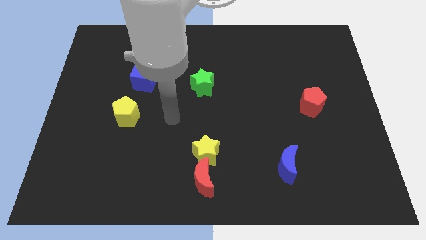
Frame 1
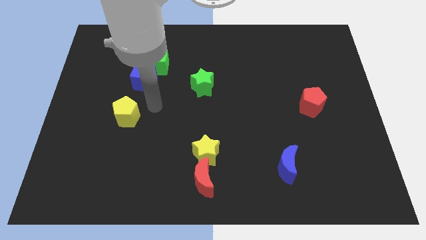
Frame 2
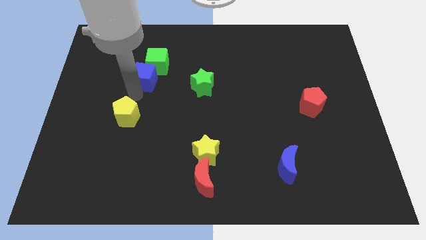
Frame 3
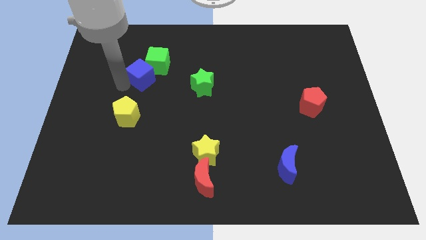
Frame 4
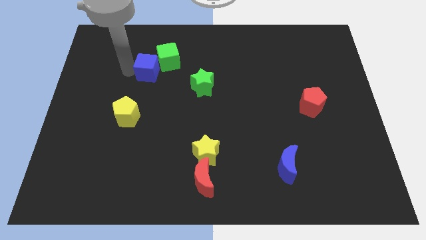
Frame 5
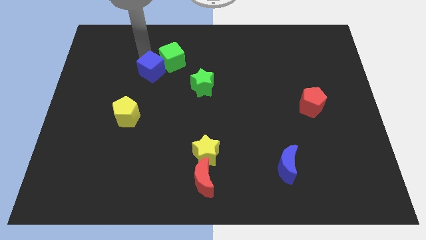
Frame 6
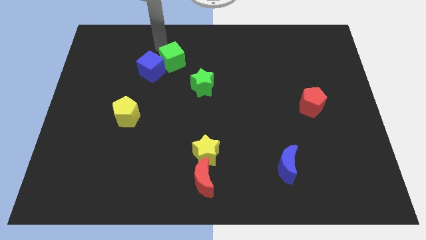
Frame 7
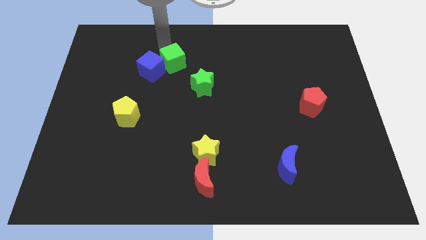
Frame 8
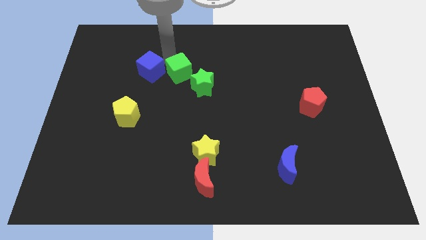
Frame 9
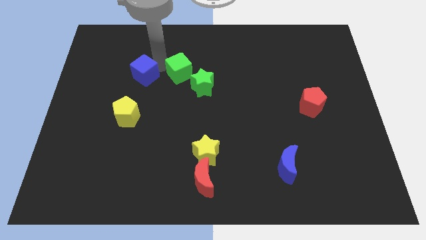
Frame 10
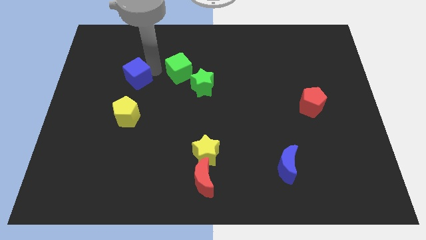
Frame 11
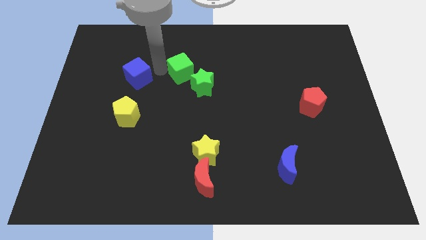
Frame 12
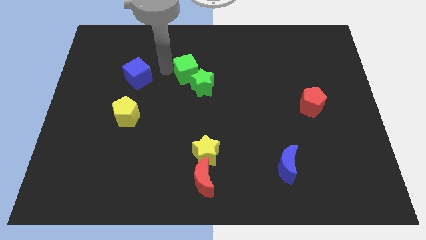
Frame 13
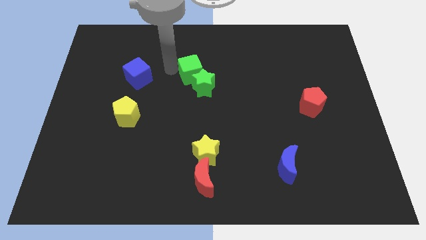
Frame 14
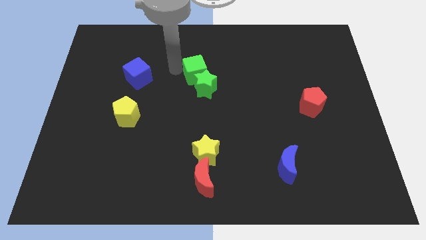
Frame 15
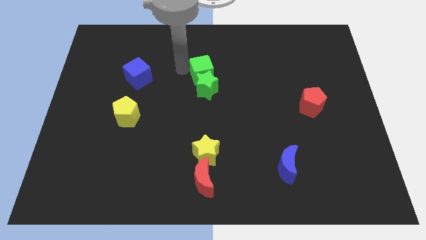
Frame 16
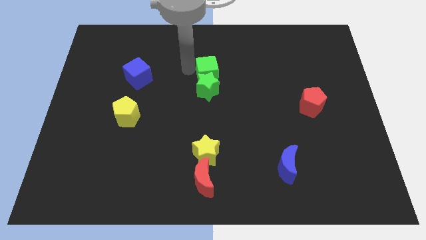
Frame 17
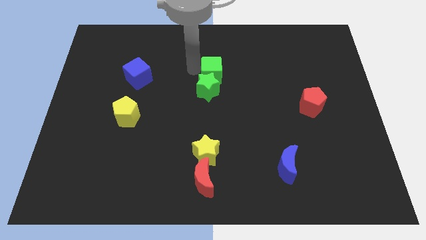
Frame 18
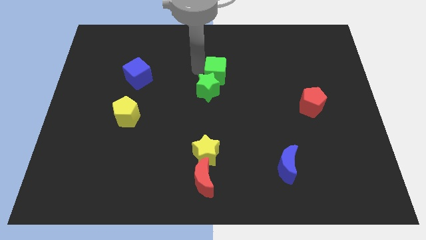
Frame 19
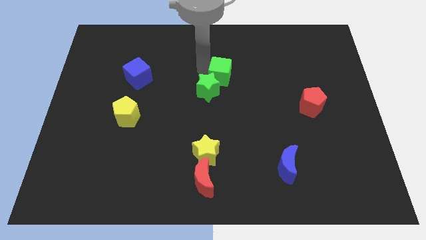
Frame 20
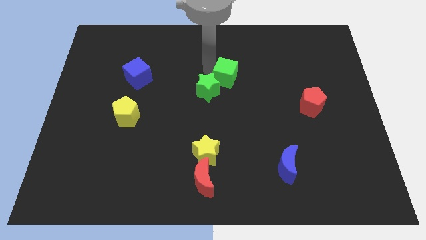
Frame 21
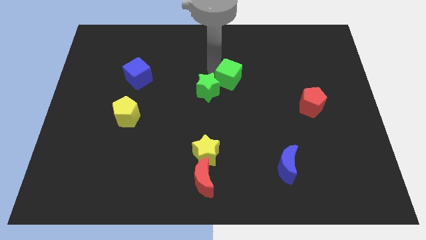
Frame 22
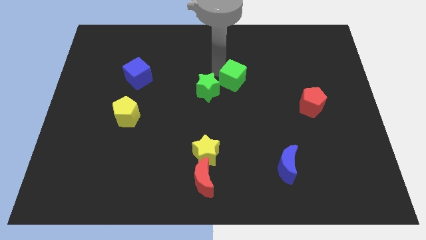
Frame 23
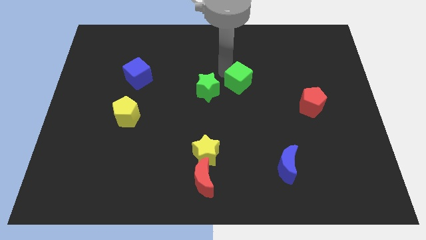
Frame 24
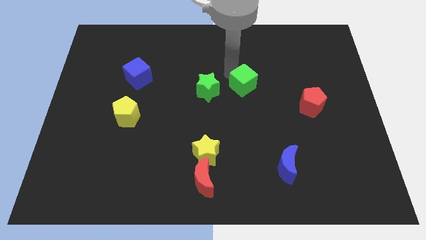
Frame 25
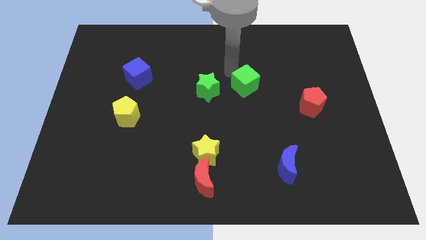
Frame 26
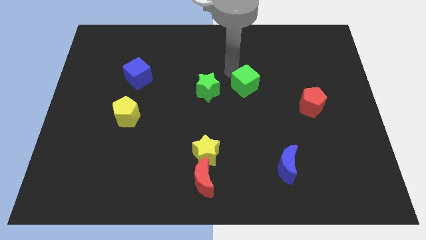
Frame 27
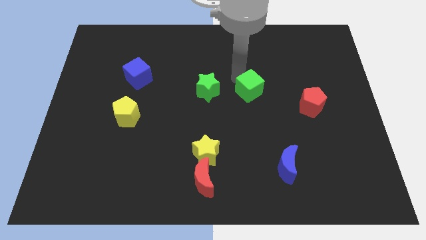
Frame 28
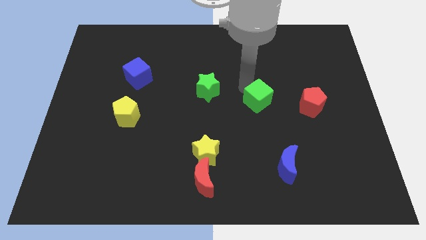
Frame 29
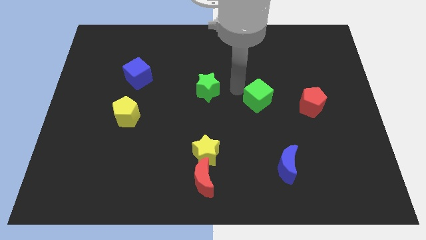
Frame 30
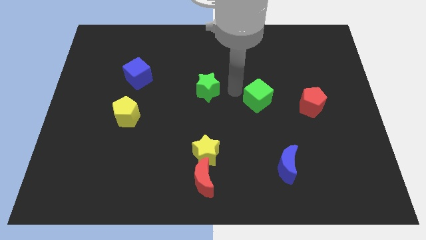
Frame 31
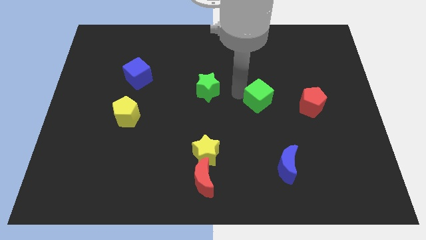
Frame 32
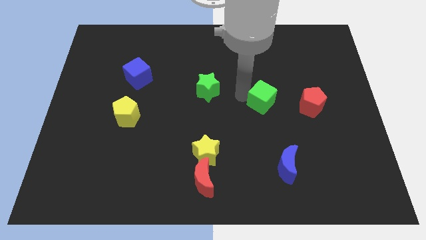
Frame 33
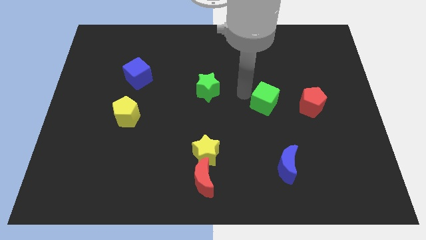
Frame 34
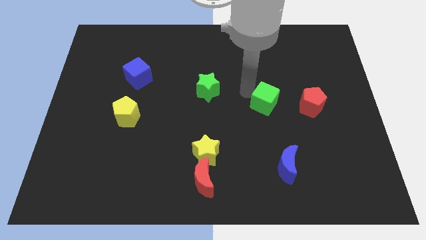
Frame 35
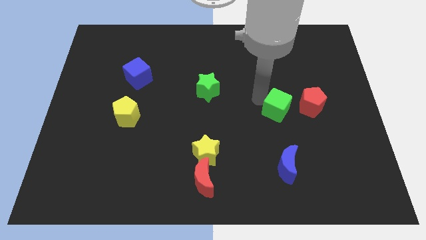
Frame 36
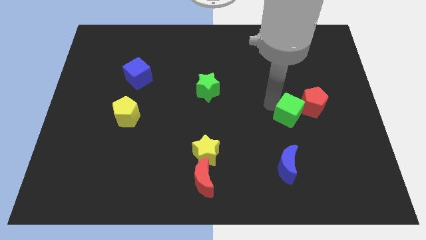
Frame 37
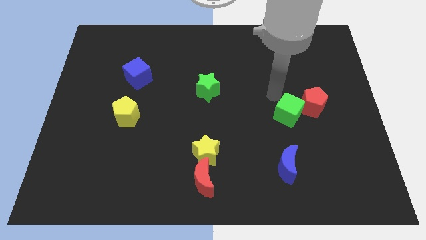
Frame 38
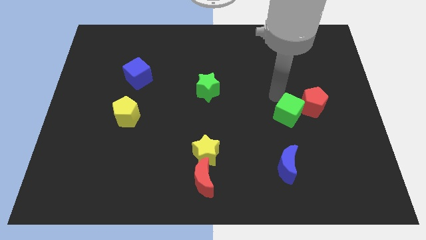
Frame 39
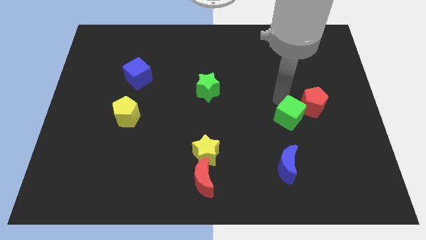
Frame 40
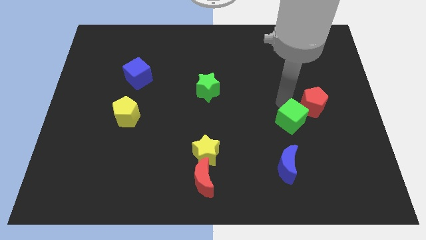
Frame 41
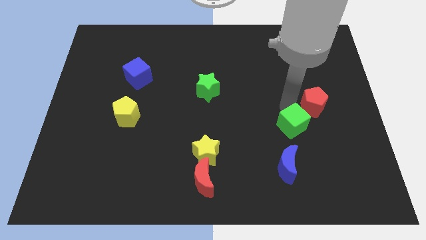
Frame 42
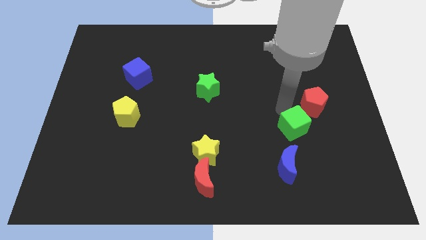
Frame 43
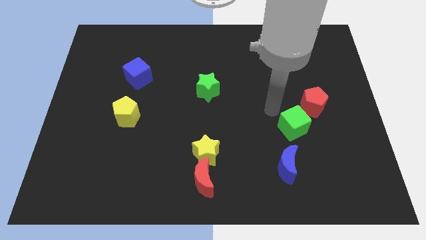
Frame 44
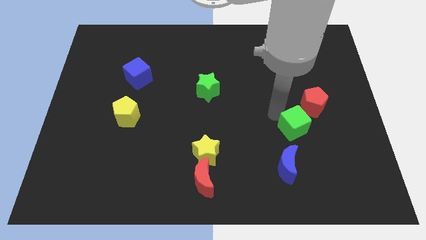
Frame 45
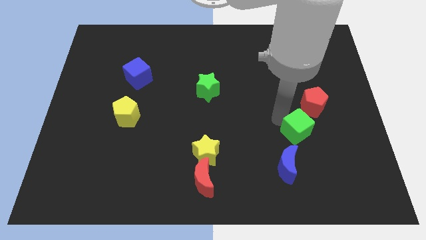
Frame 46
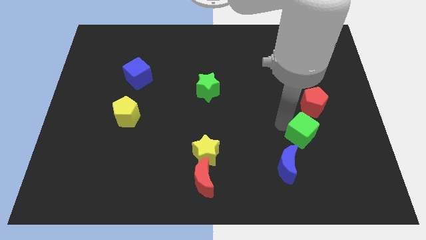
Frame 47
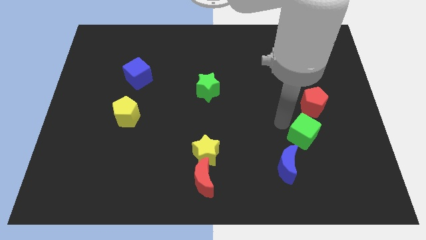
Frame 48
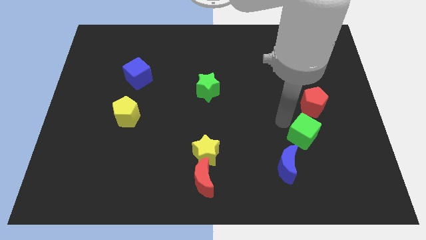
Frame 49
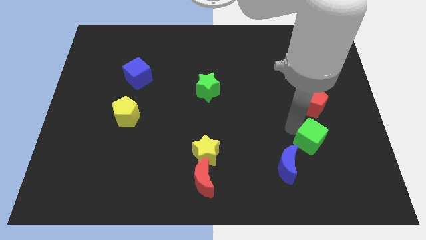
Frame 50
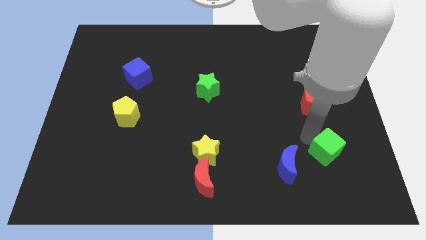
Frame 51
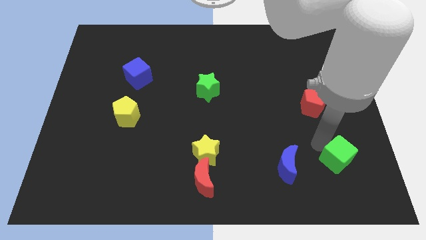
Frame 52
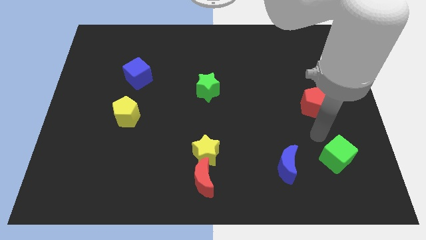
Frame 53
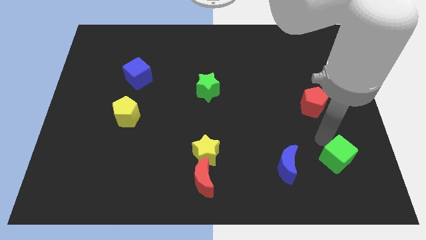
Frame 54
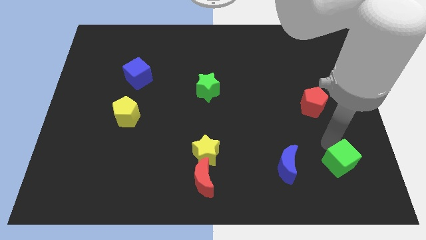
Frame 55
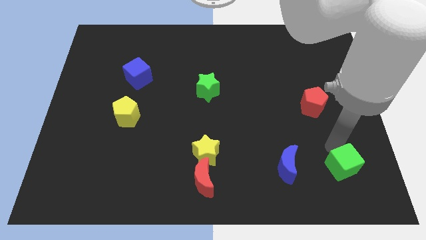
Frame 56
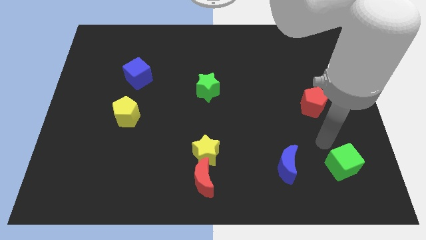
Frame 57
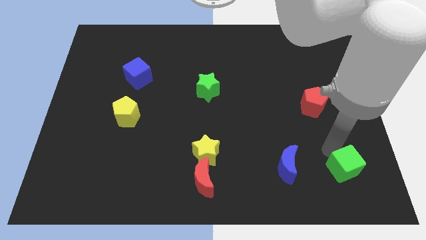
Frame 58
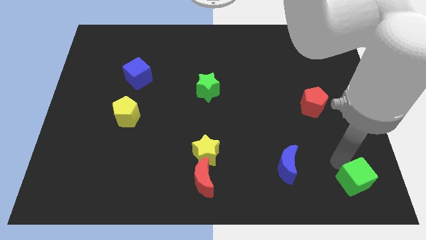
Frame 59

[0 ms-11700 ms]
push the green cube to the bottom right
